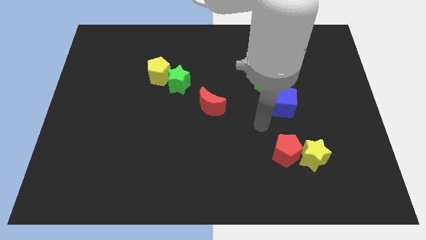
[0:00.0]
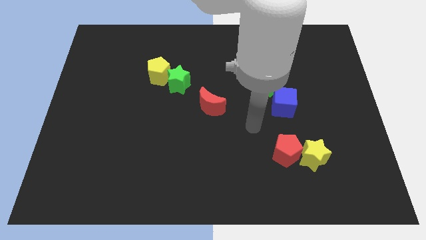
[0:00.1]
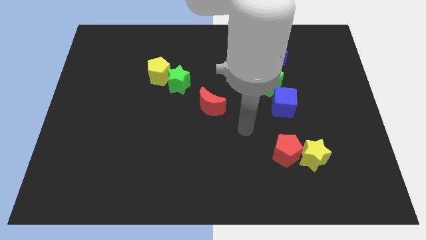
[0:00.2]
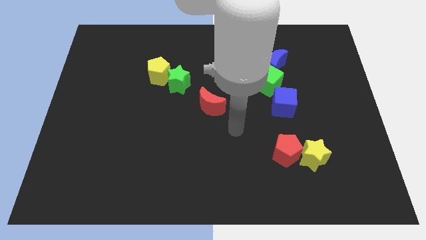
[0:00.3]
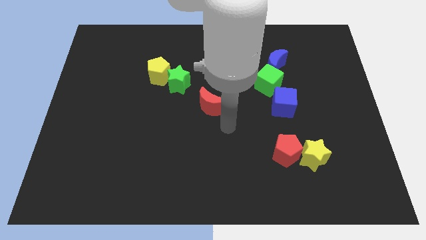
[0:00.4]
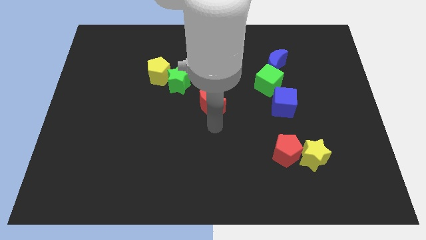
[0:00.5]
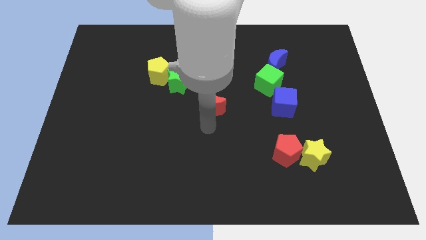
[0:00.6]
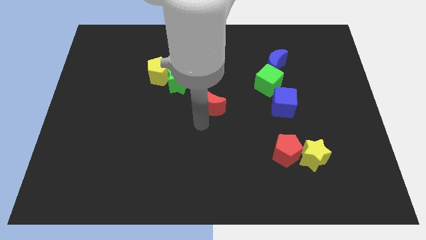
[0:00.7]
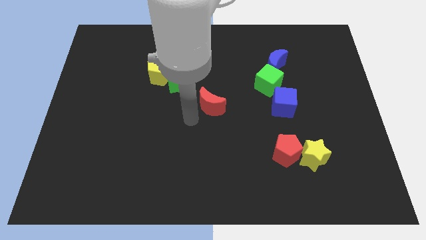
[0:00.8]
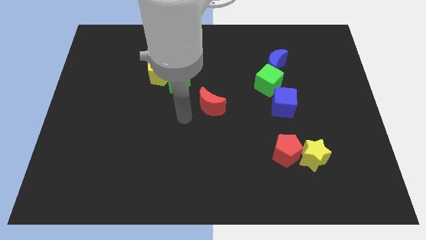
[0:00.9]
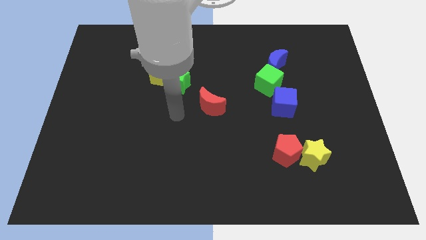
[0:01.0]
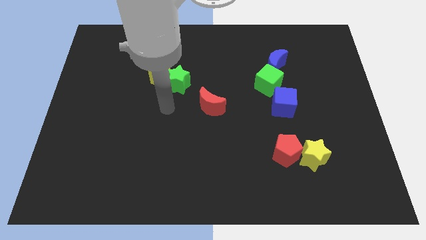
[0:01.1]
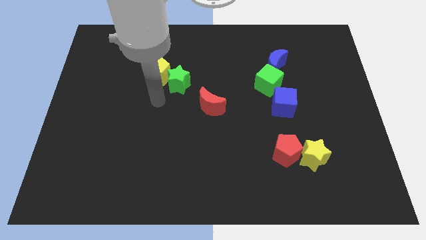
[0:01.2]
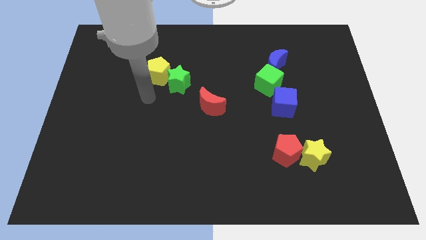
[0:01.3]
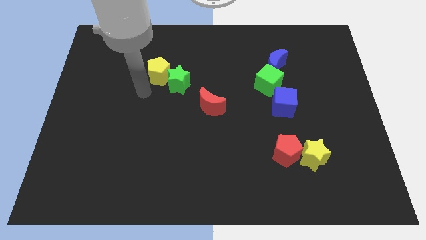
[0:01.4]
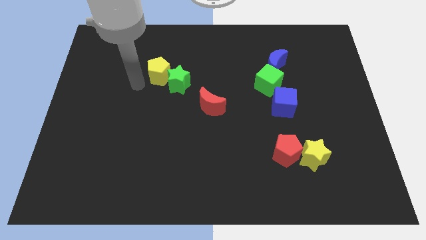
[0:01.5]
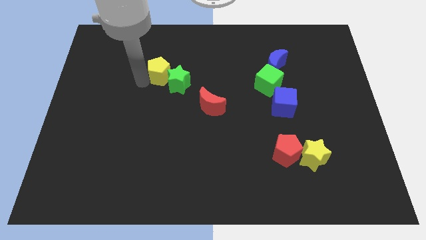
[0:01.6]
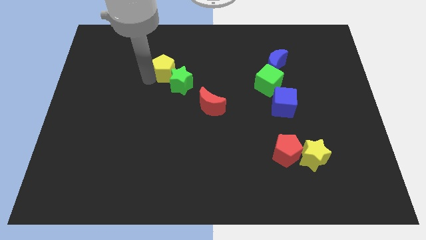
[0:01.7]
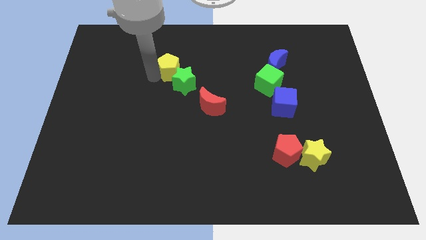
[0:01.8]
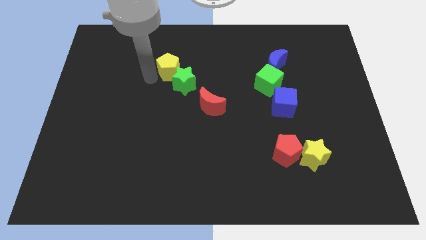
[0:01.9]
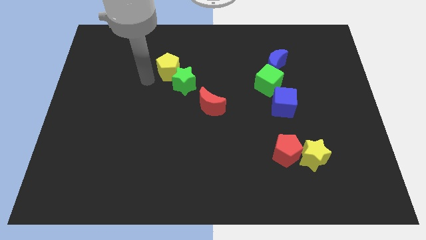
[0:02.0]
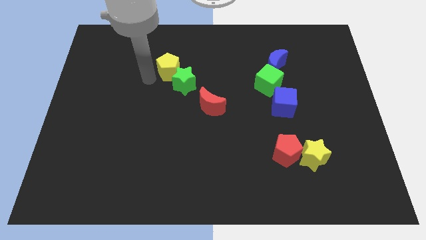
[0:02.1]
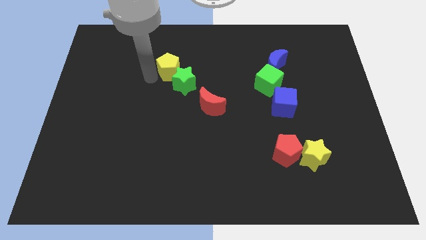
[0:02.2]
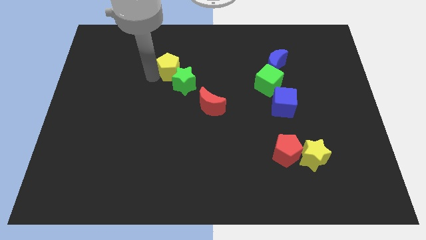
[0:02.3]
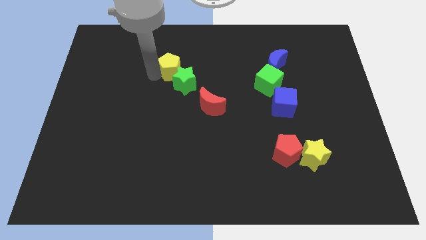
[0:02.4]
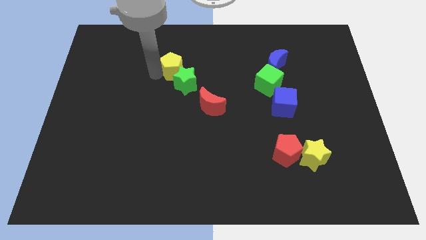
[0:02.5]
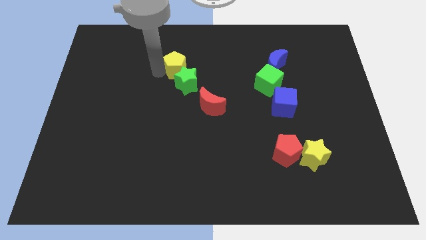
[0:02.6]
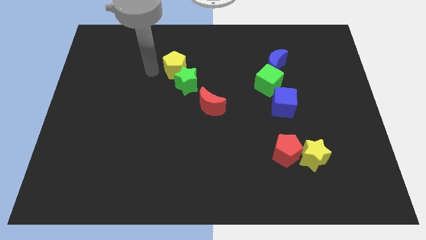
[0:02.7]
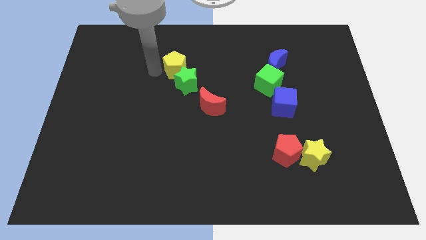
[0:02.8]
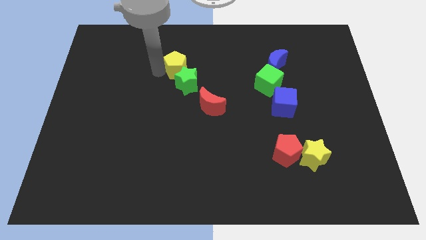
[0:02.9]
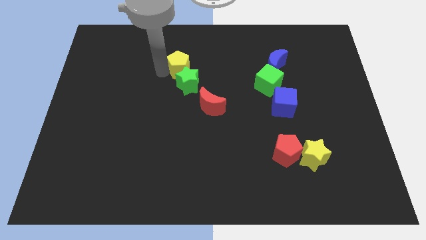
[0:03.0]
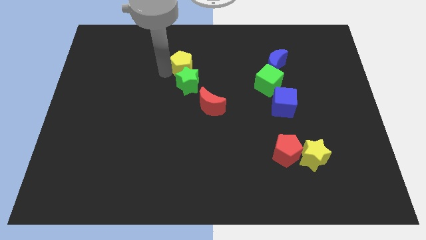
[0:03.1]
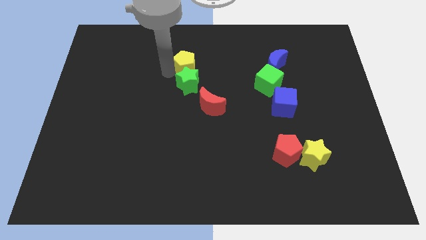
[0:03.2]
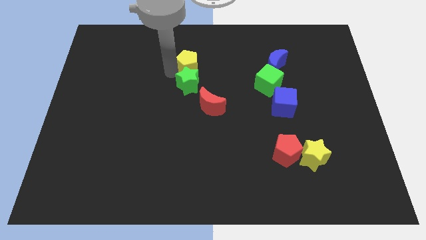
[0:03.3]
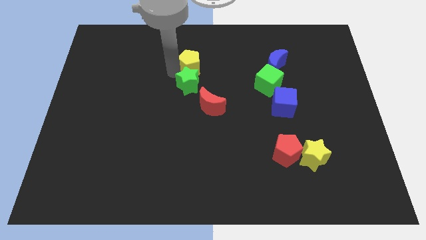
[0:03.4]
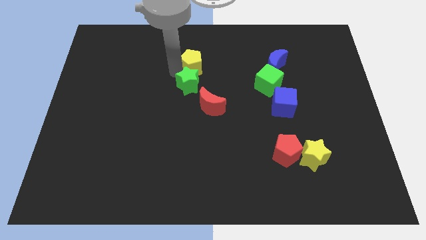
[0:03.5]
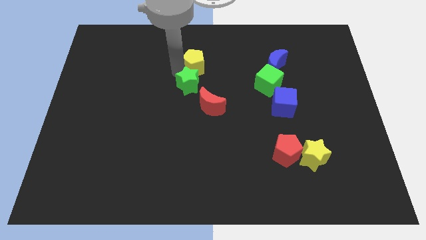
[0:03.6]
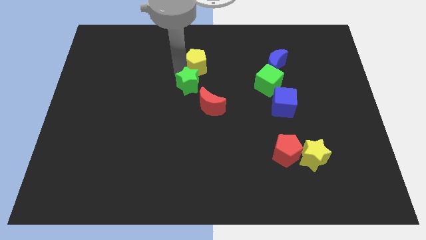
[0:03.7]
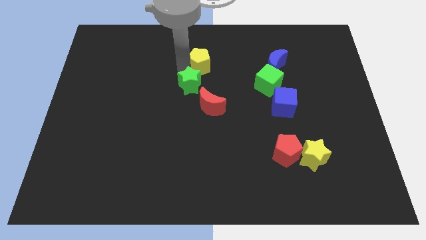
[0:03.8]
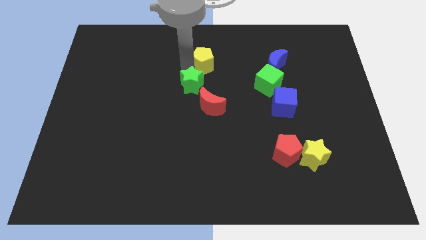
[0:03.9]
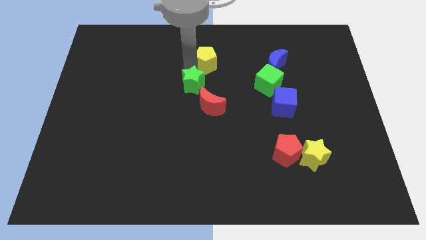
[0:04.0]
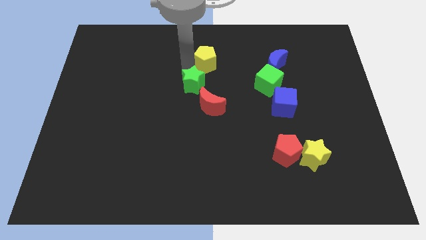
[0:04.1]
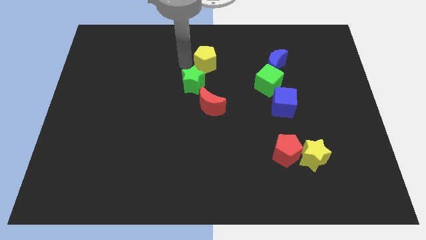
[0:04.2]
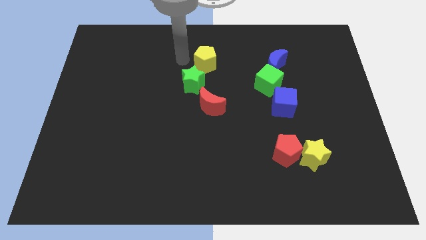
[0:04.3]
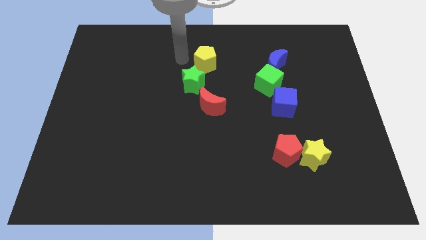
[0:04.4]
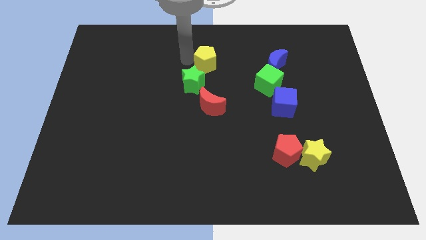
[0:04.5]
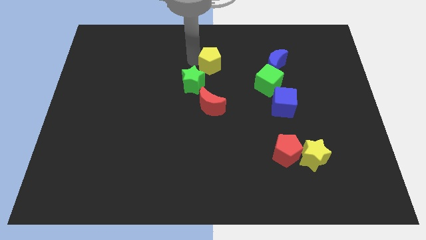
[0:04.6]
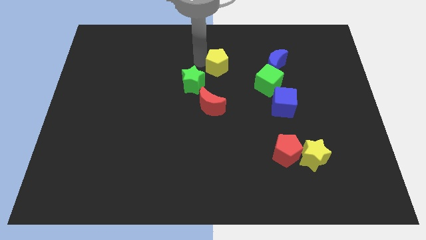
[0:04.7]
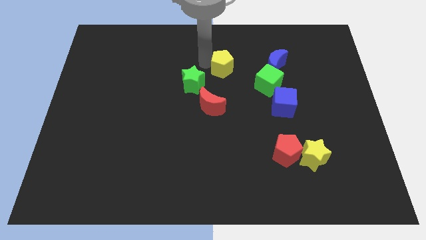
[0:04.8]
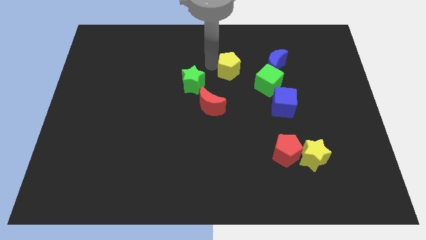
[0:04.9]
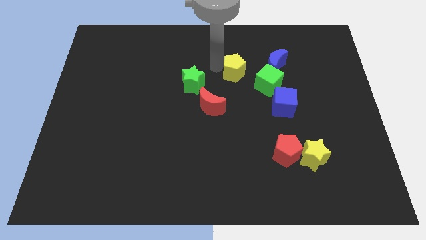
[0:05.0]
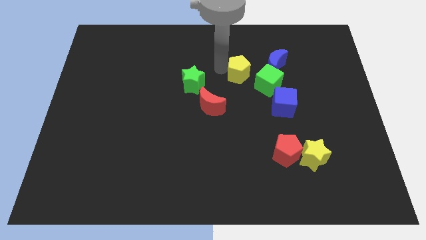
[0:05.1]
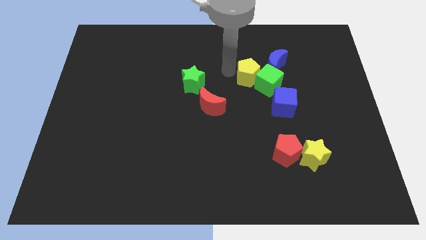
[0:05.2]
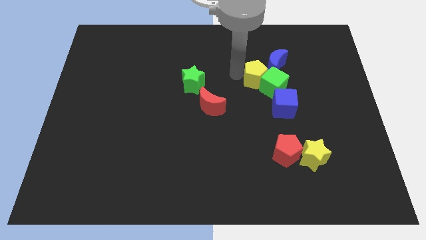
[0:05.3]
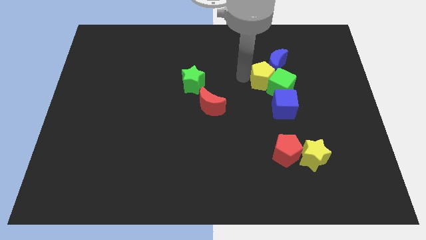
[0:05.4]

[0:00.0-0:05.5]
put the yellow pentagon next to the blue moon

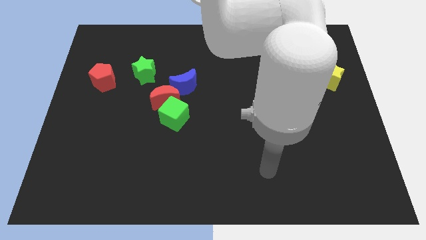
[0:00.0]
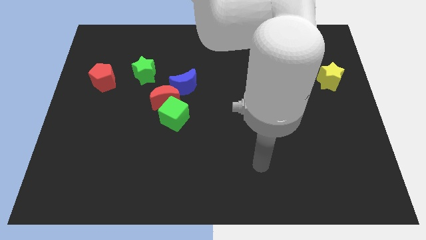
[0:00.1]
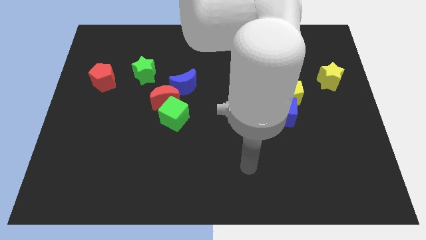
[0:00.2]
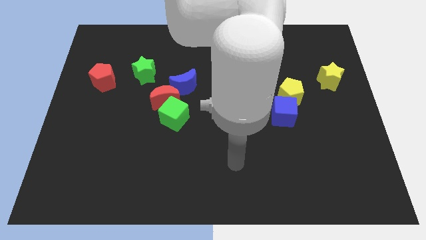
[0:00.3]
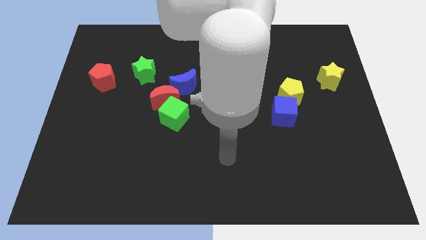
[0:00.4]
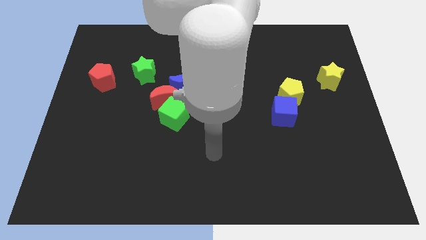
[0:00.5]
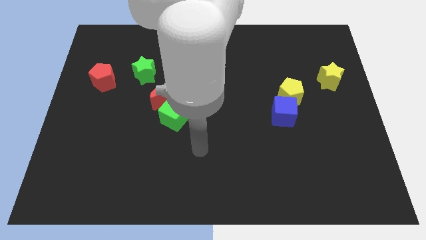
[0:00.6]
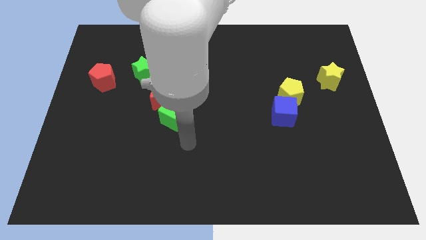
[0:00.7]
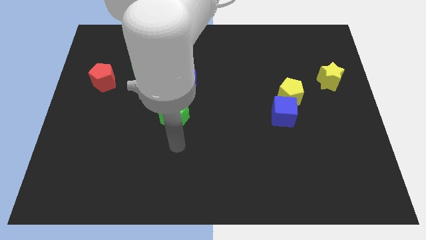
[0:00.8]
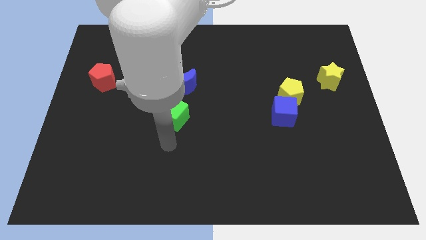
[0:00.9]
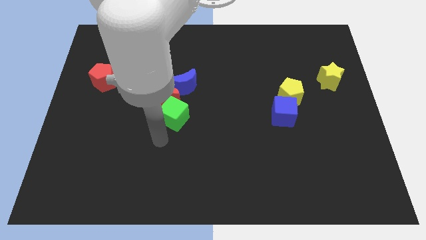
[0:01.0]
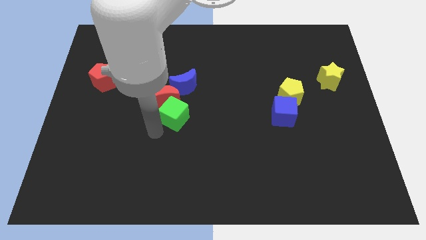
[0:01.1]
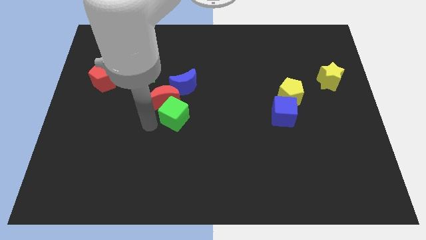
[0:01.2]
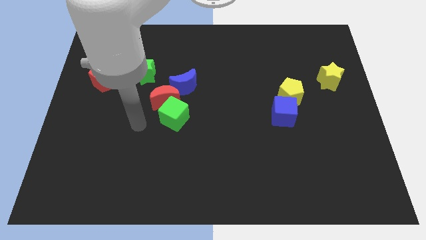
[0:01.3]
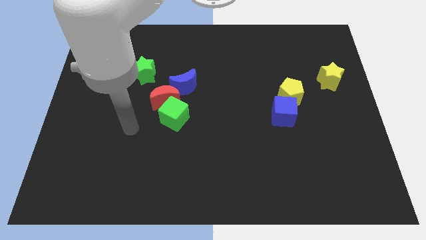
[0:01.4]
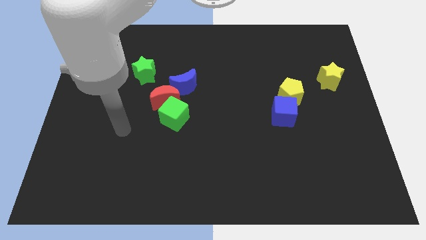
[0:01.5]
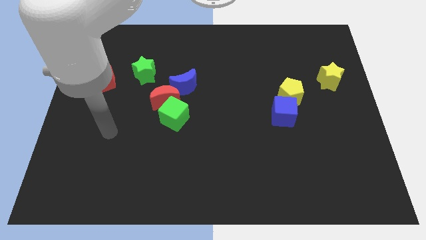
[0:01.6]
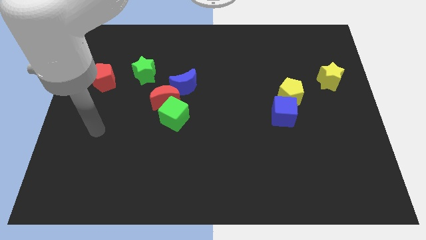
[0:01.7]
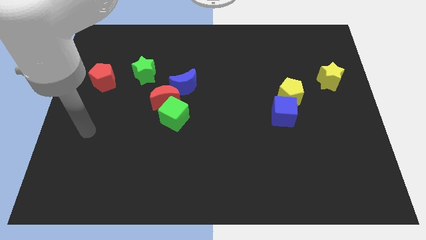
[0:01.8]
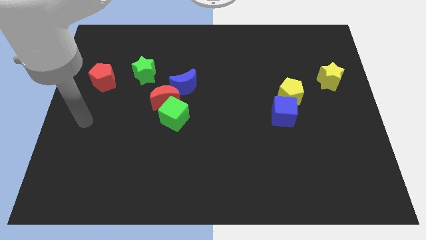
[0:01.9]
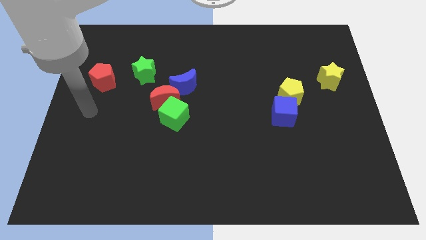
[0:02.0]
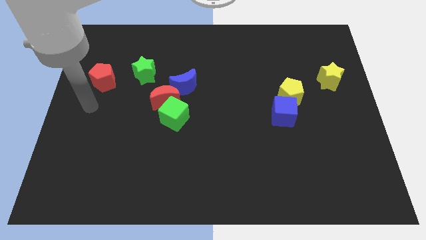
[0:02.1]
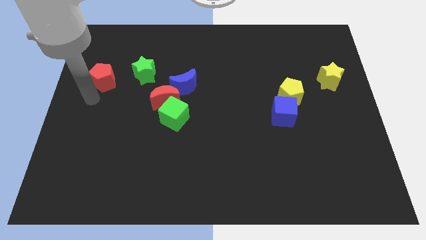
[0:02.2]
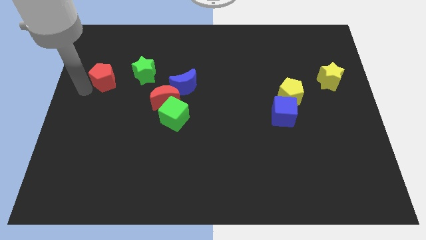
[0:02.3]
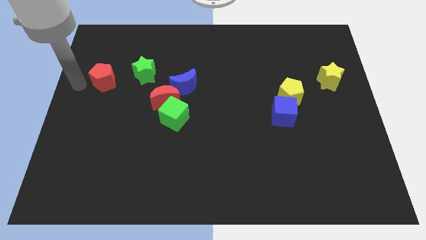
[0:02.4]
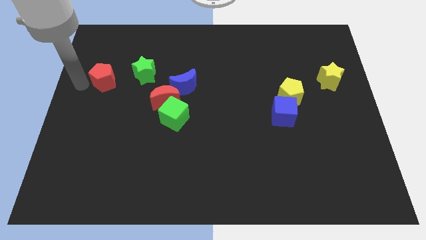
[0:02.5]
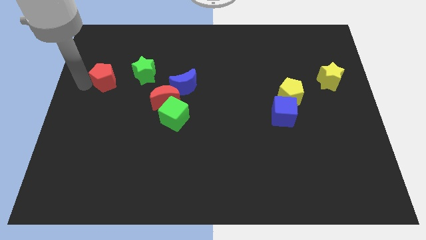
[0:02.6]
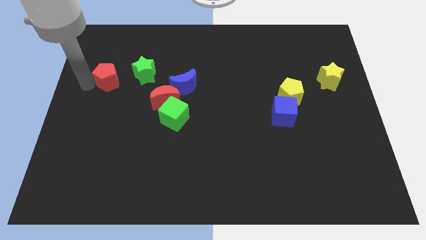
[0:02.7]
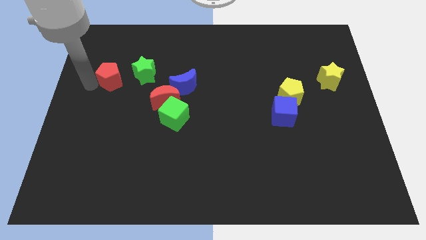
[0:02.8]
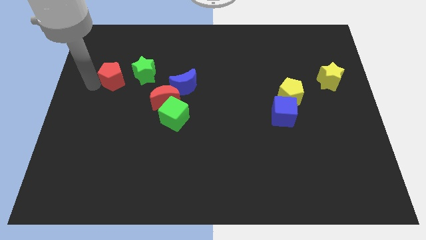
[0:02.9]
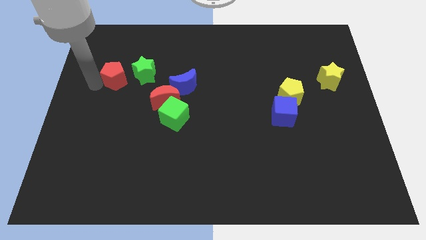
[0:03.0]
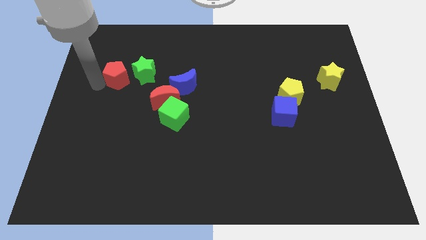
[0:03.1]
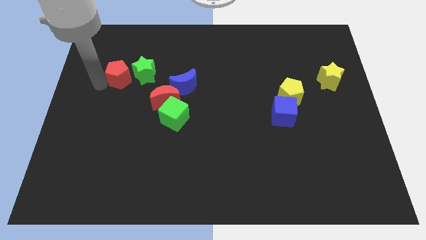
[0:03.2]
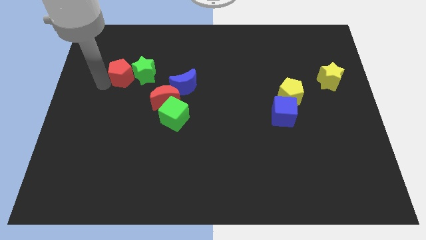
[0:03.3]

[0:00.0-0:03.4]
move the red pentagon to the green star
